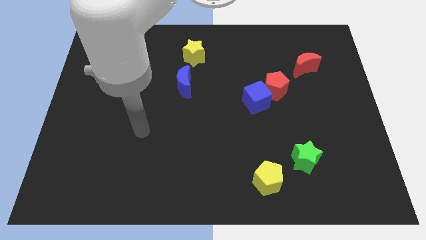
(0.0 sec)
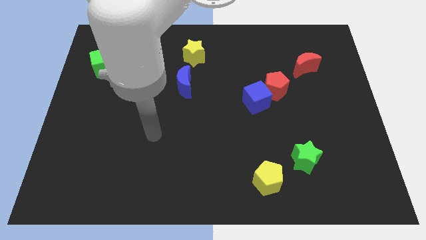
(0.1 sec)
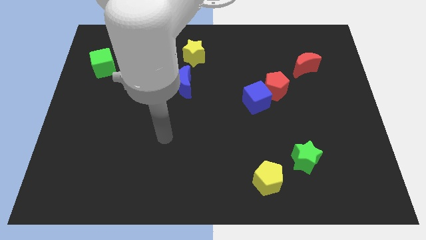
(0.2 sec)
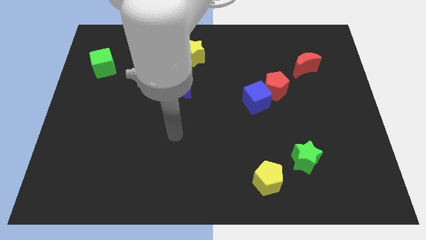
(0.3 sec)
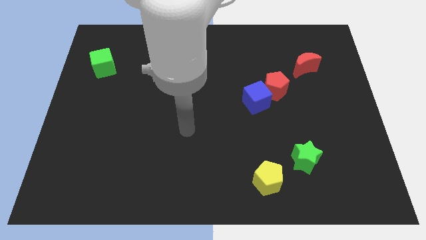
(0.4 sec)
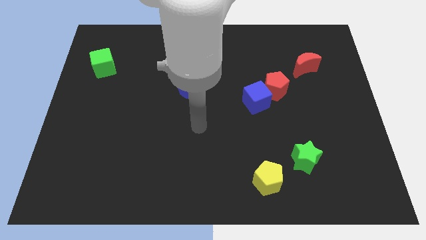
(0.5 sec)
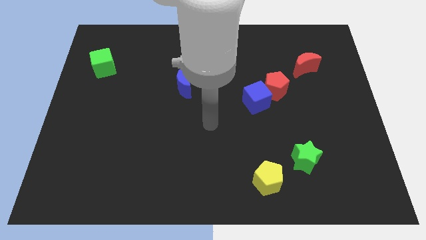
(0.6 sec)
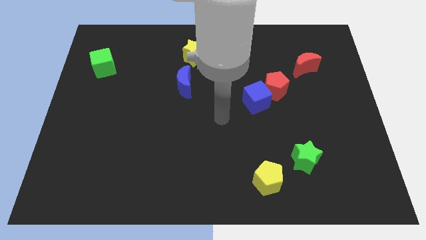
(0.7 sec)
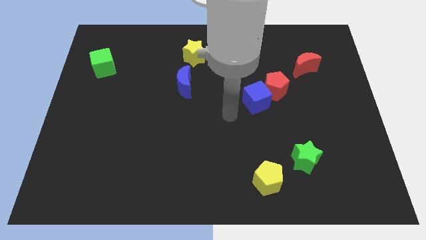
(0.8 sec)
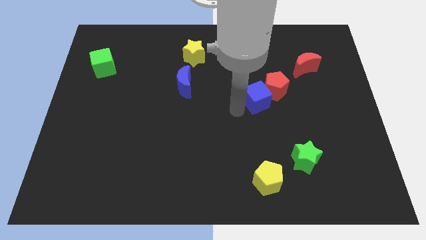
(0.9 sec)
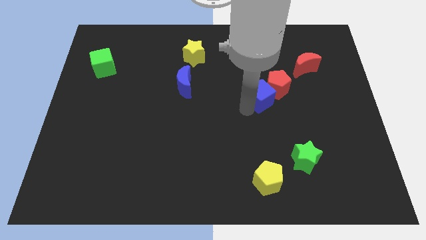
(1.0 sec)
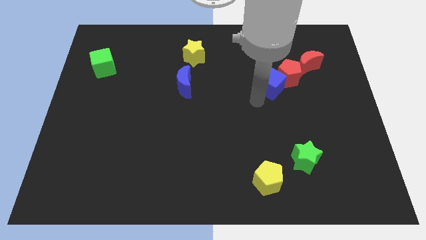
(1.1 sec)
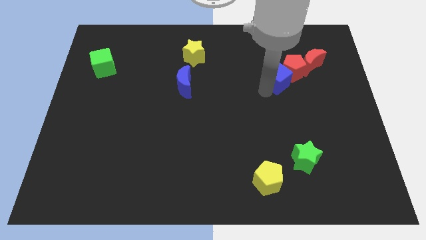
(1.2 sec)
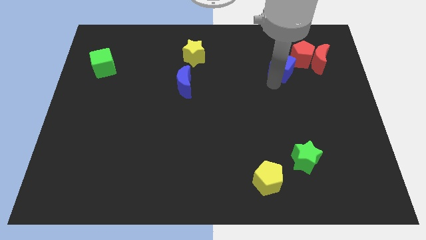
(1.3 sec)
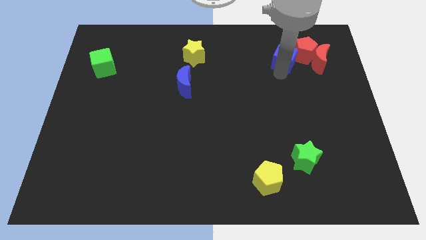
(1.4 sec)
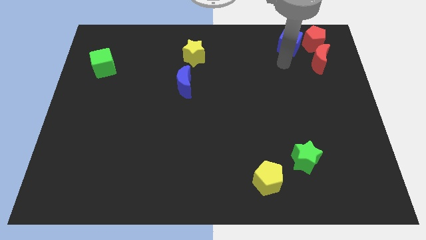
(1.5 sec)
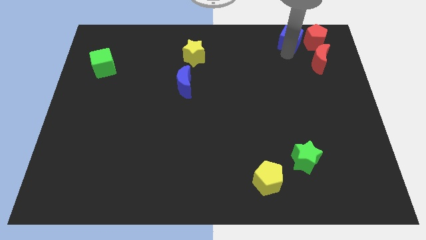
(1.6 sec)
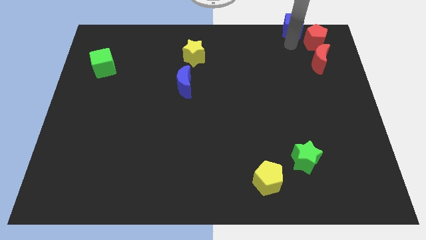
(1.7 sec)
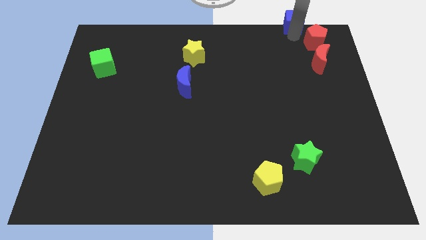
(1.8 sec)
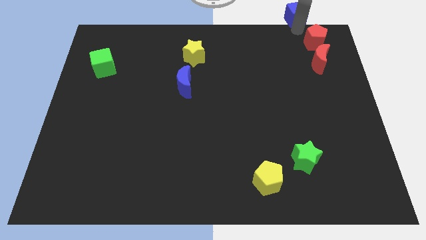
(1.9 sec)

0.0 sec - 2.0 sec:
pull the red pentagon apart from the blue cube

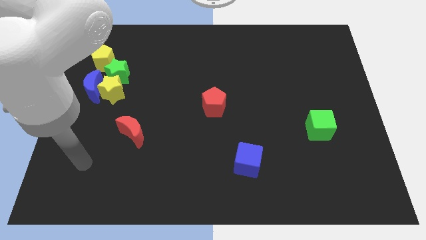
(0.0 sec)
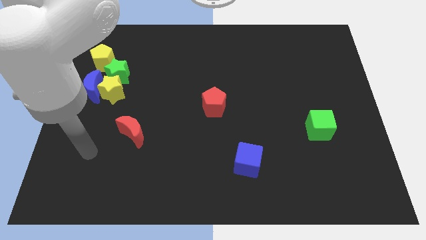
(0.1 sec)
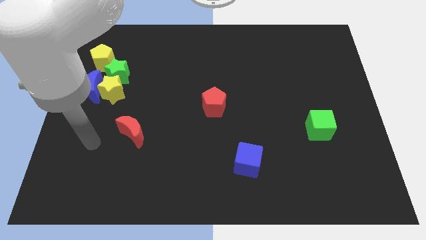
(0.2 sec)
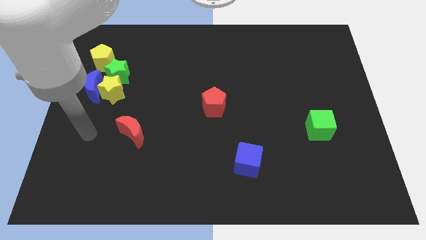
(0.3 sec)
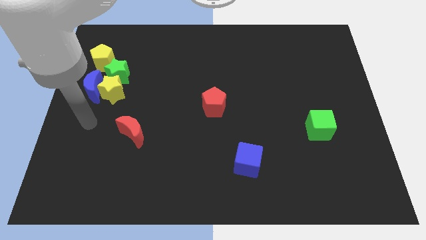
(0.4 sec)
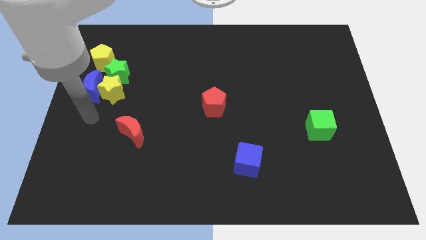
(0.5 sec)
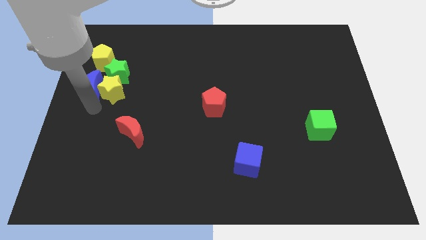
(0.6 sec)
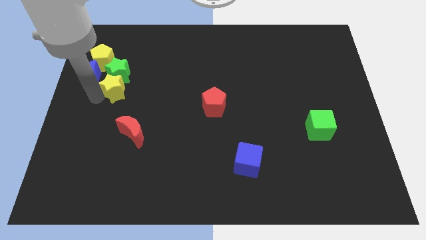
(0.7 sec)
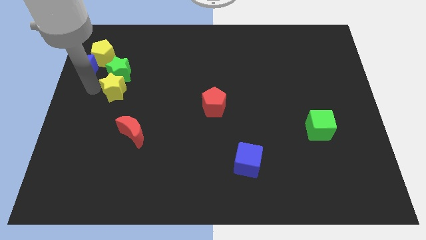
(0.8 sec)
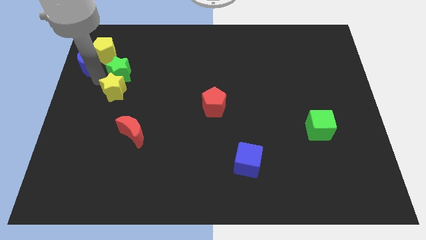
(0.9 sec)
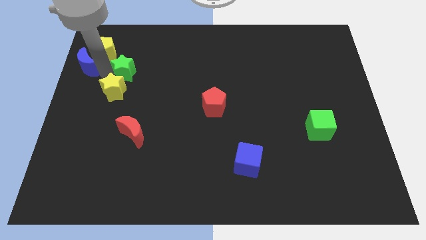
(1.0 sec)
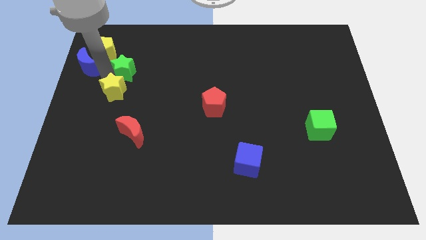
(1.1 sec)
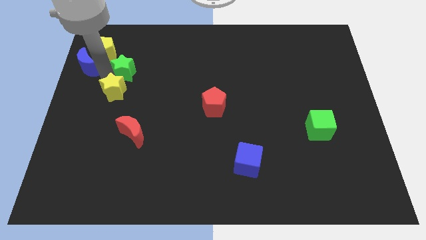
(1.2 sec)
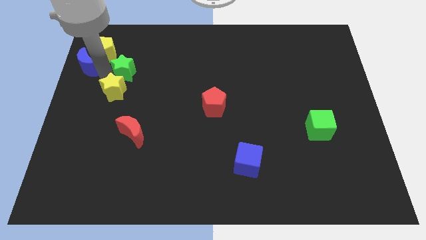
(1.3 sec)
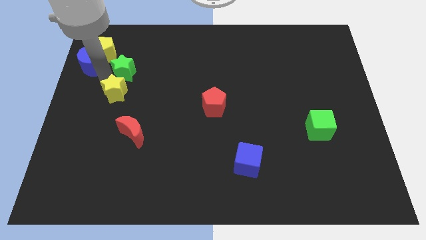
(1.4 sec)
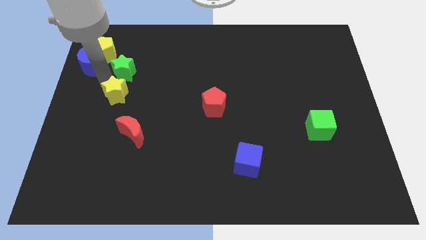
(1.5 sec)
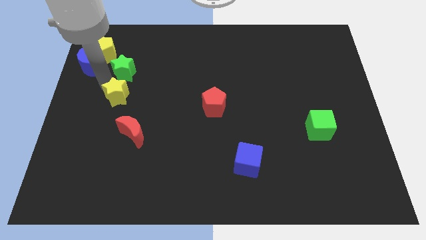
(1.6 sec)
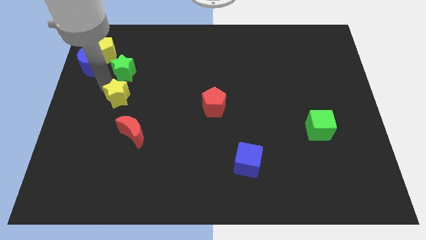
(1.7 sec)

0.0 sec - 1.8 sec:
pull the yellow star apart from the blue moon and green star

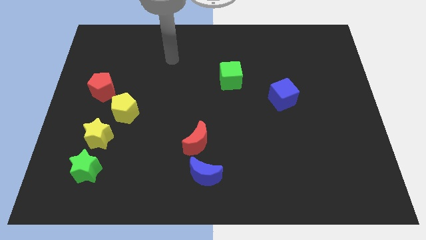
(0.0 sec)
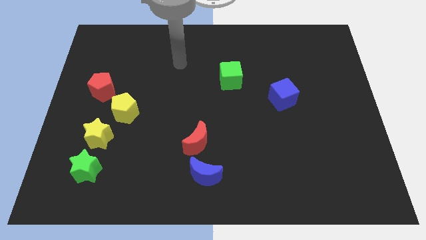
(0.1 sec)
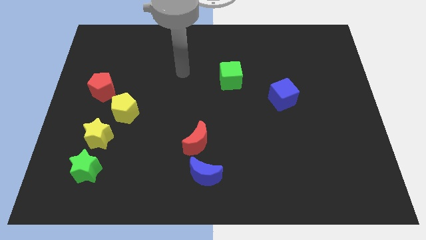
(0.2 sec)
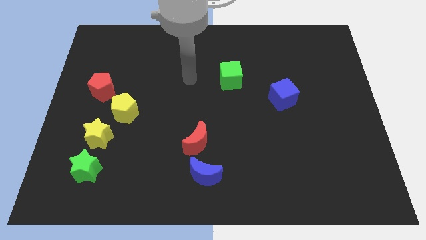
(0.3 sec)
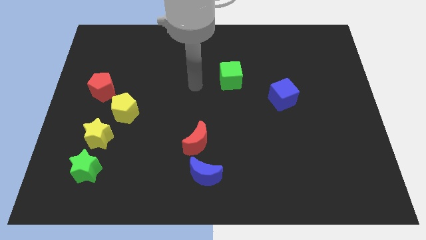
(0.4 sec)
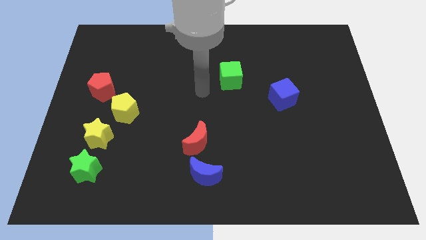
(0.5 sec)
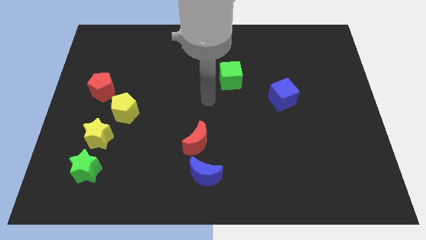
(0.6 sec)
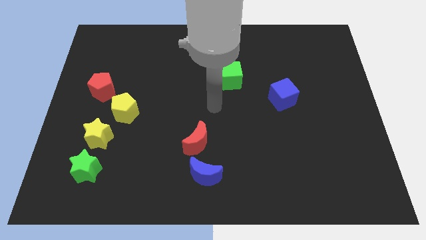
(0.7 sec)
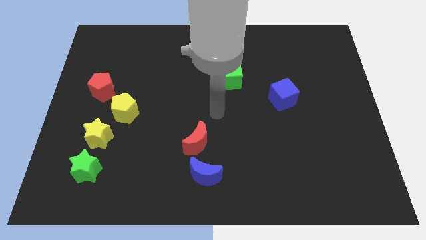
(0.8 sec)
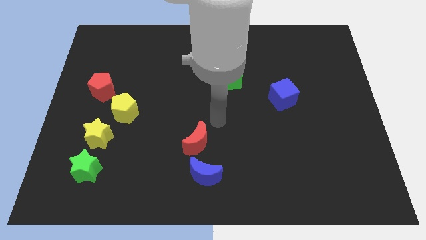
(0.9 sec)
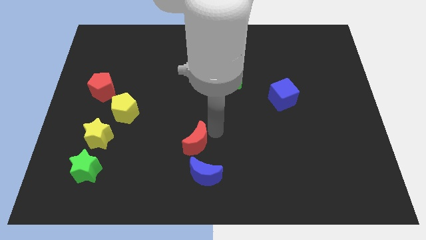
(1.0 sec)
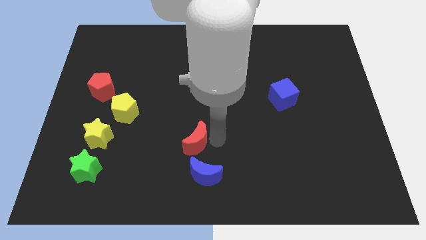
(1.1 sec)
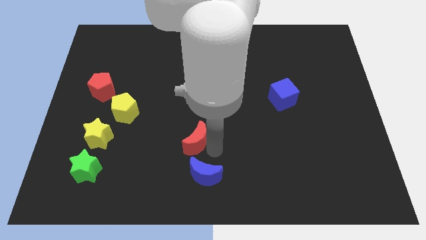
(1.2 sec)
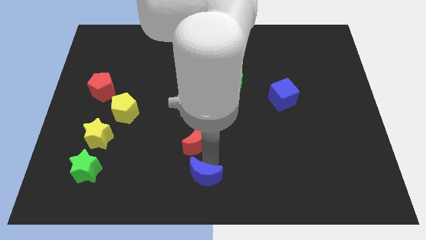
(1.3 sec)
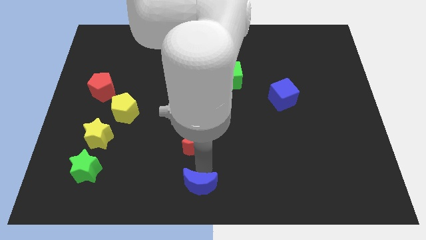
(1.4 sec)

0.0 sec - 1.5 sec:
separate the red moon from the blue moon

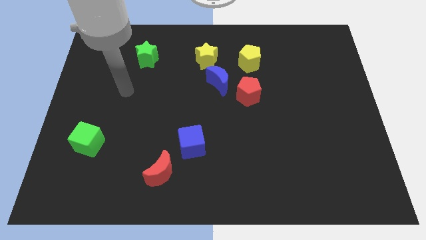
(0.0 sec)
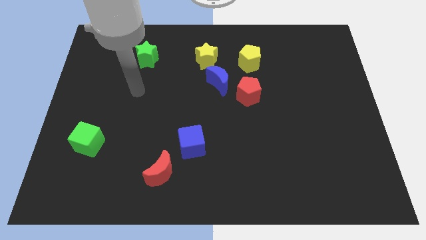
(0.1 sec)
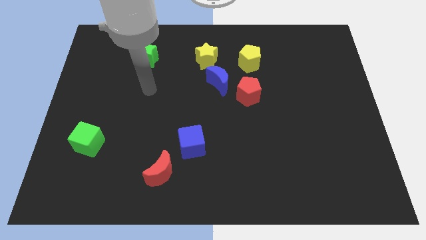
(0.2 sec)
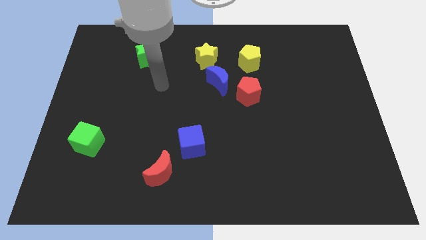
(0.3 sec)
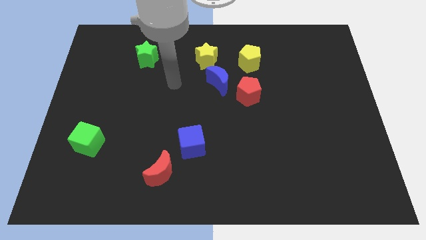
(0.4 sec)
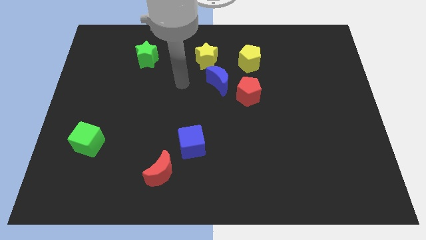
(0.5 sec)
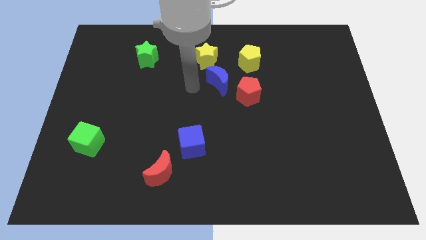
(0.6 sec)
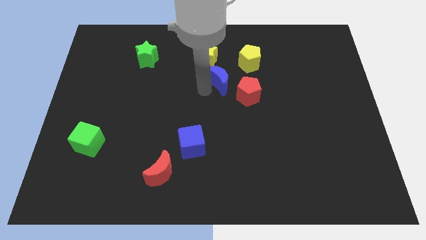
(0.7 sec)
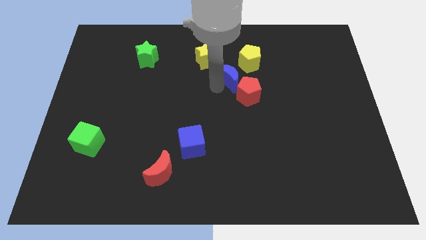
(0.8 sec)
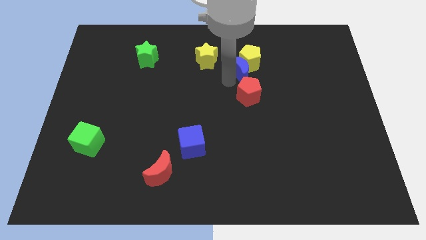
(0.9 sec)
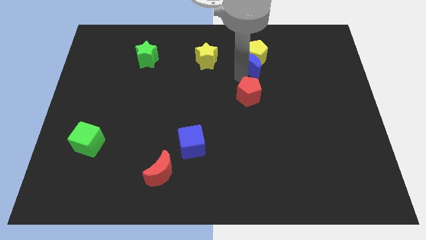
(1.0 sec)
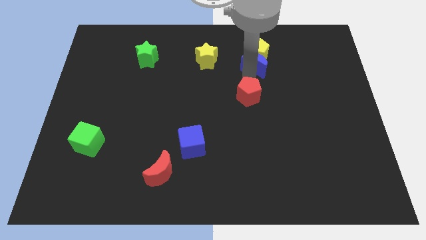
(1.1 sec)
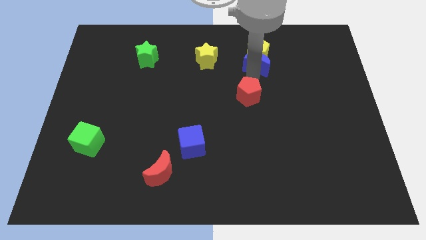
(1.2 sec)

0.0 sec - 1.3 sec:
move the red pentagon away from the blue moon

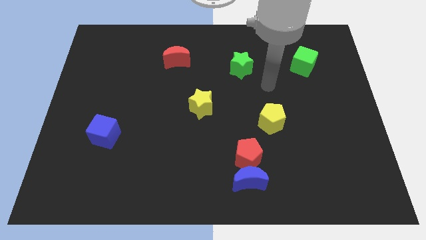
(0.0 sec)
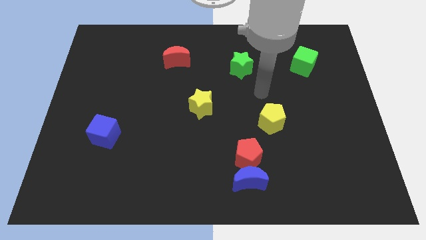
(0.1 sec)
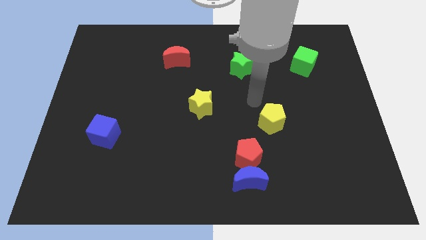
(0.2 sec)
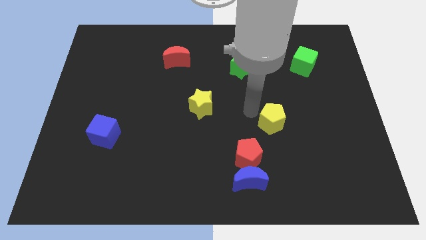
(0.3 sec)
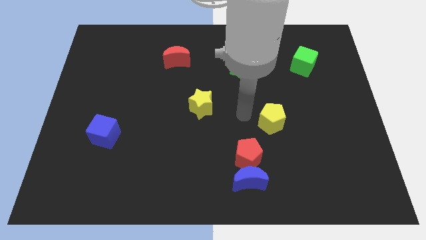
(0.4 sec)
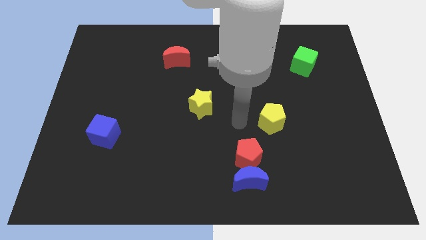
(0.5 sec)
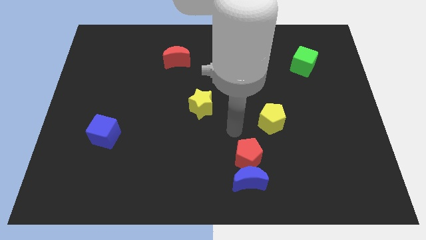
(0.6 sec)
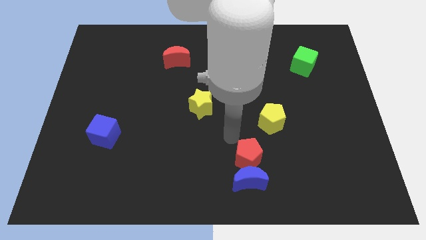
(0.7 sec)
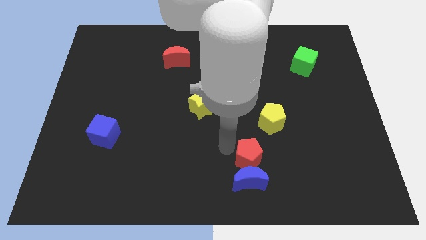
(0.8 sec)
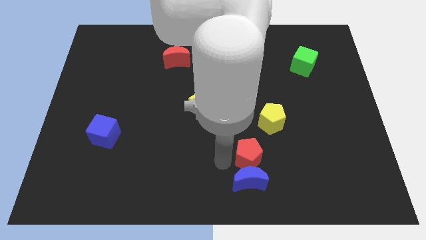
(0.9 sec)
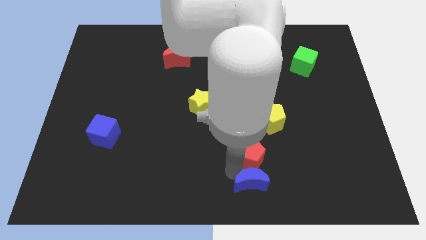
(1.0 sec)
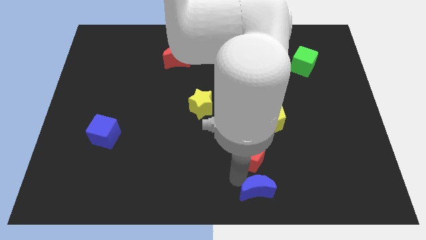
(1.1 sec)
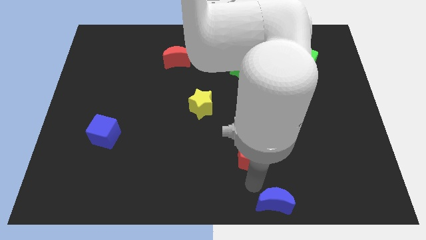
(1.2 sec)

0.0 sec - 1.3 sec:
separate the red pentagon from the blue moon

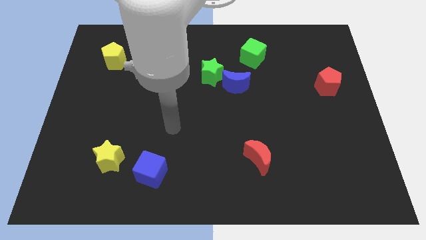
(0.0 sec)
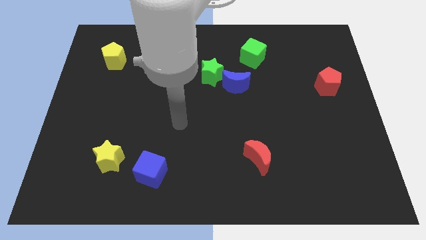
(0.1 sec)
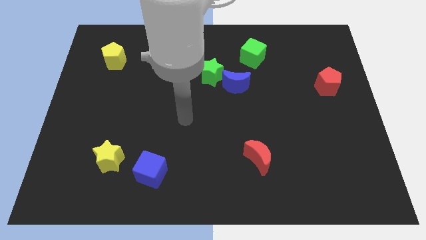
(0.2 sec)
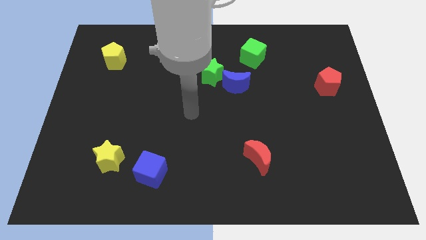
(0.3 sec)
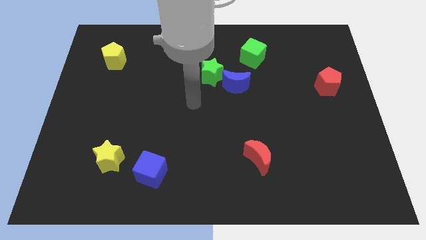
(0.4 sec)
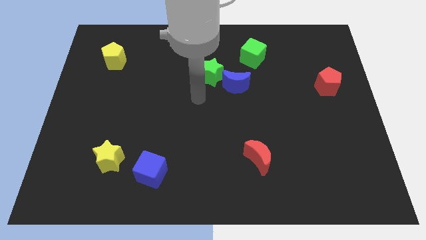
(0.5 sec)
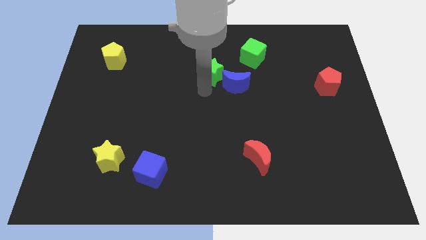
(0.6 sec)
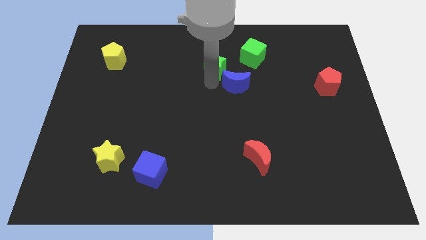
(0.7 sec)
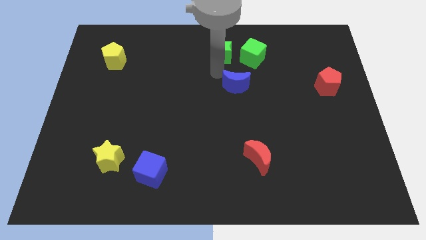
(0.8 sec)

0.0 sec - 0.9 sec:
move the blue moon away from the green star

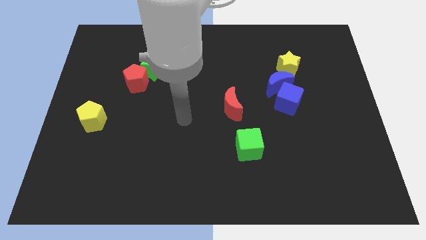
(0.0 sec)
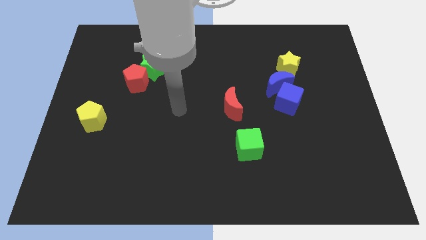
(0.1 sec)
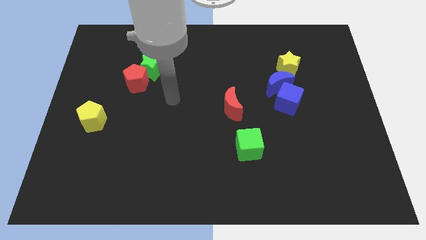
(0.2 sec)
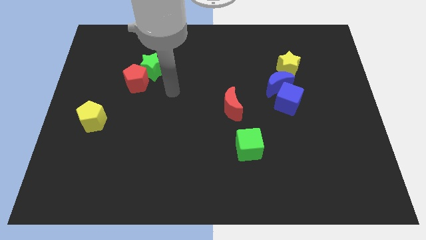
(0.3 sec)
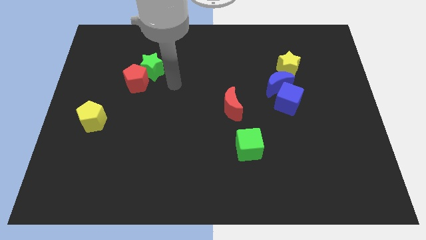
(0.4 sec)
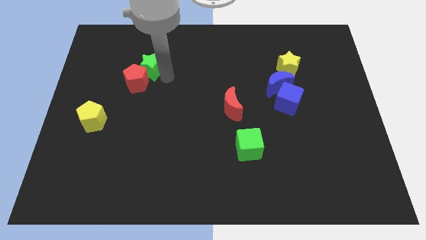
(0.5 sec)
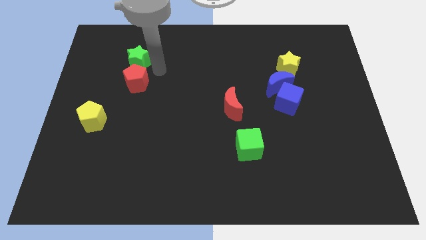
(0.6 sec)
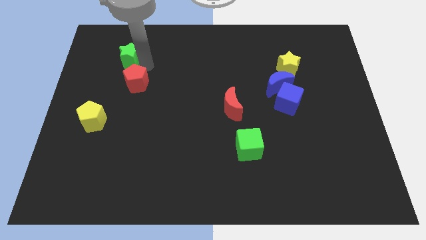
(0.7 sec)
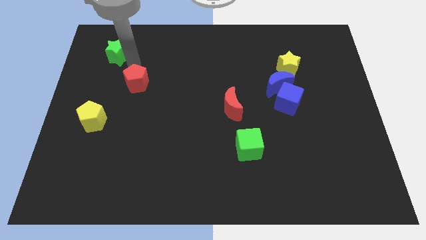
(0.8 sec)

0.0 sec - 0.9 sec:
move the red pentagon away from the green star
